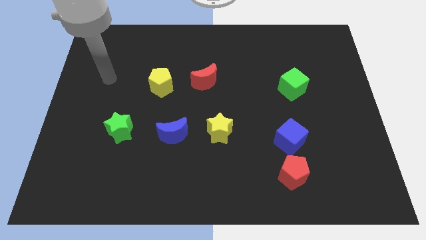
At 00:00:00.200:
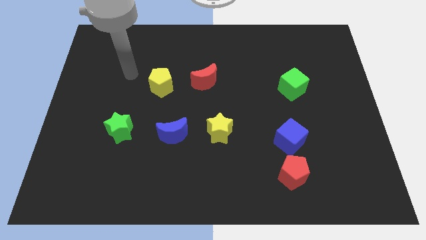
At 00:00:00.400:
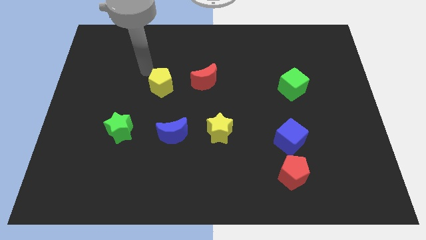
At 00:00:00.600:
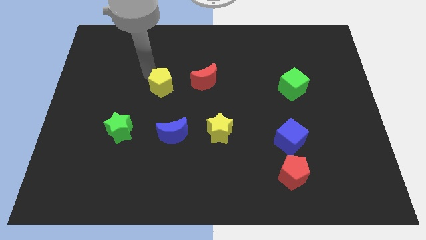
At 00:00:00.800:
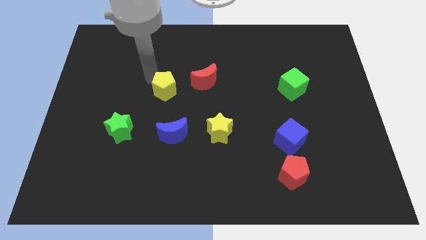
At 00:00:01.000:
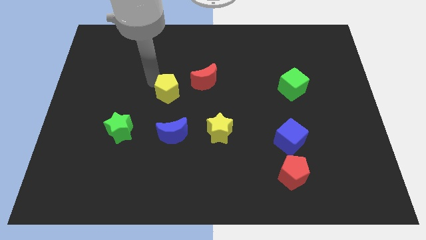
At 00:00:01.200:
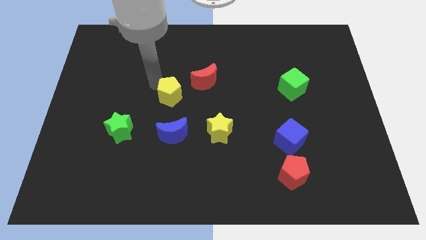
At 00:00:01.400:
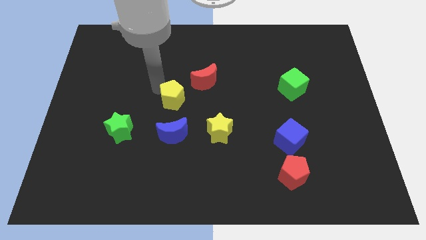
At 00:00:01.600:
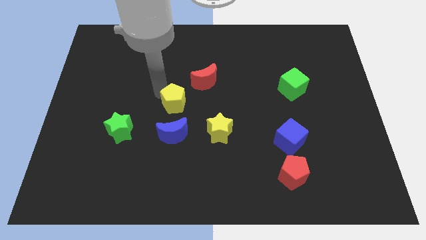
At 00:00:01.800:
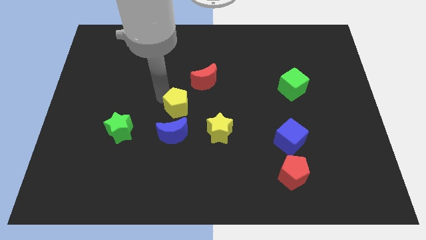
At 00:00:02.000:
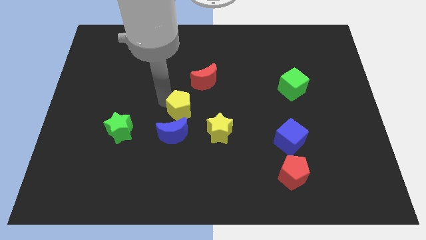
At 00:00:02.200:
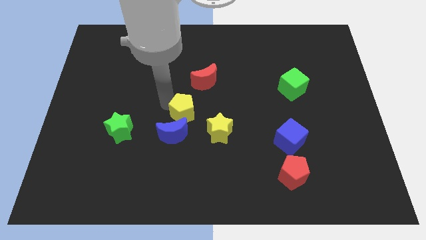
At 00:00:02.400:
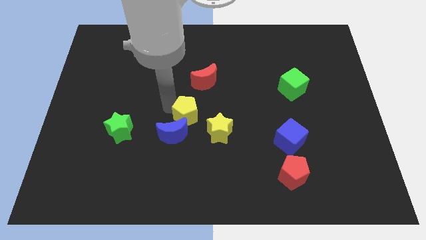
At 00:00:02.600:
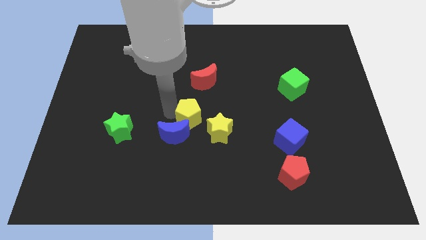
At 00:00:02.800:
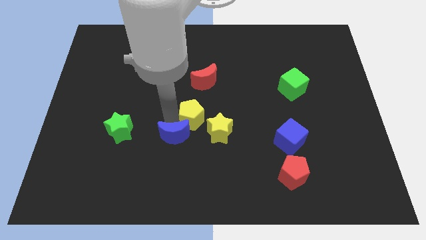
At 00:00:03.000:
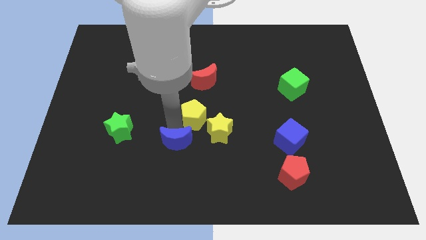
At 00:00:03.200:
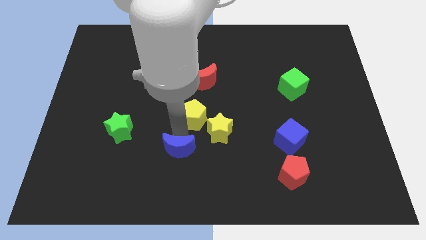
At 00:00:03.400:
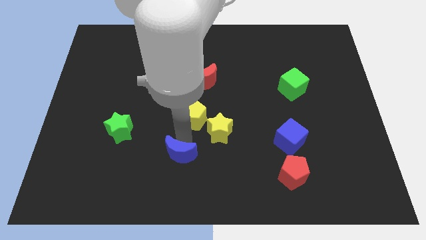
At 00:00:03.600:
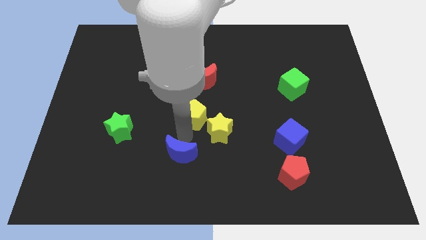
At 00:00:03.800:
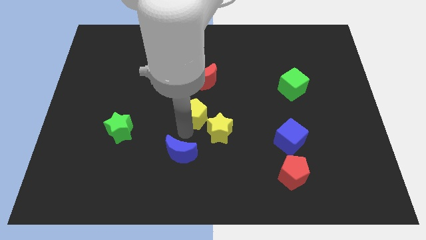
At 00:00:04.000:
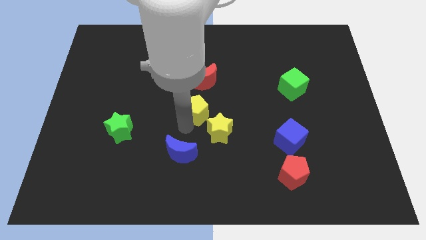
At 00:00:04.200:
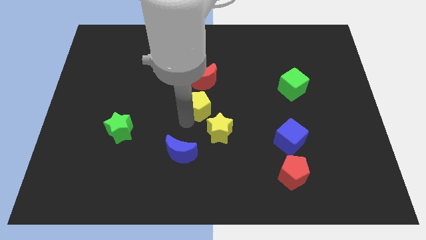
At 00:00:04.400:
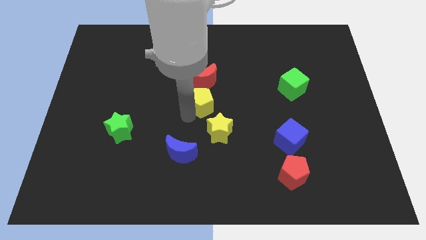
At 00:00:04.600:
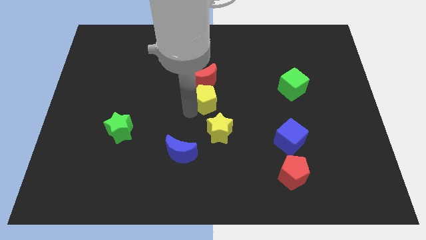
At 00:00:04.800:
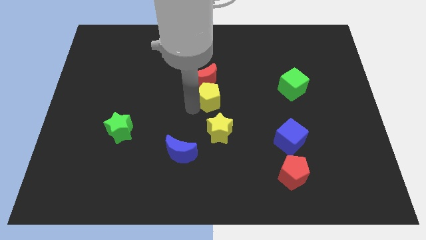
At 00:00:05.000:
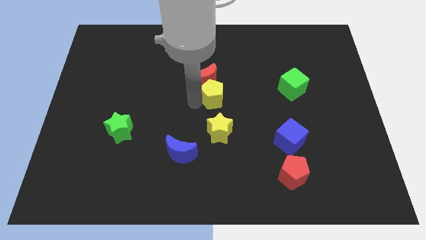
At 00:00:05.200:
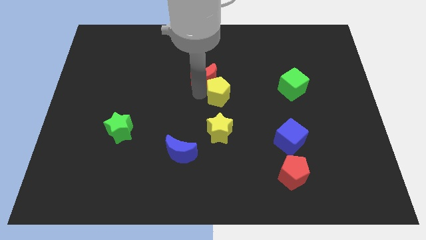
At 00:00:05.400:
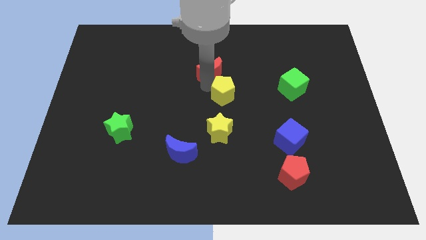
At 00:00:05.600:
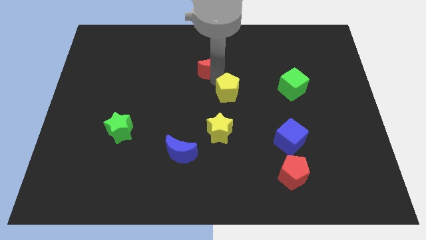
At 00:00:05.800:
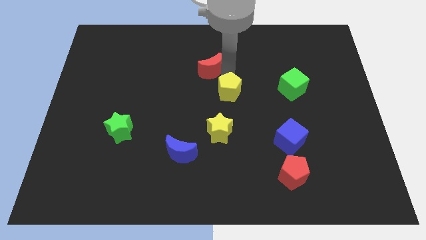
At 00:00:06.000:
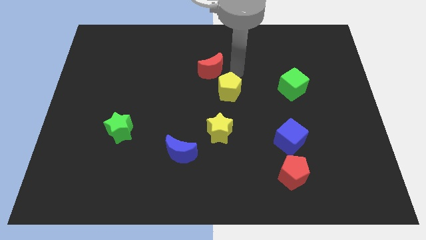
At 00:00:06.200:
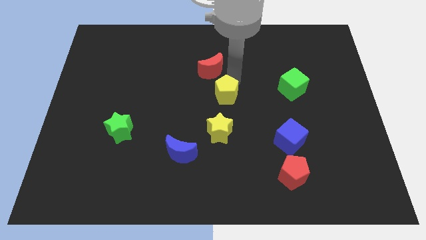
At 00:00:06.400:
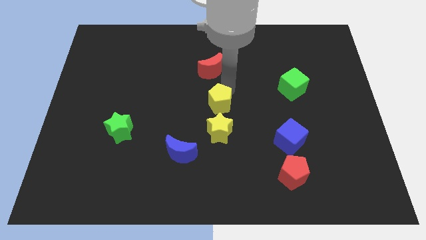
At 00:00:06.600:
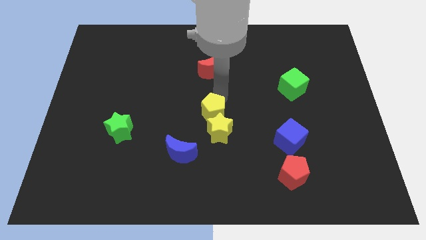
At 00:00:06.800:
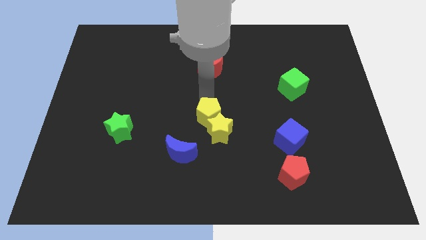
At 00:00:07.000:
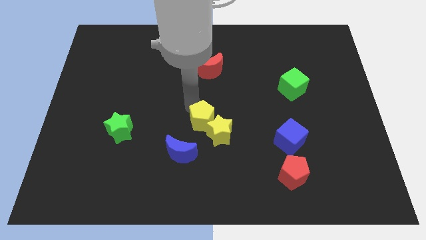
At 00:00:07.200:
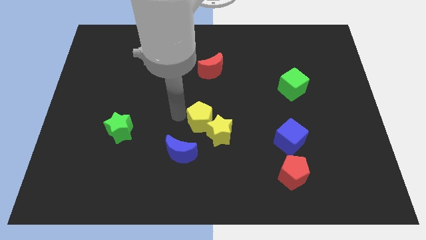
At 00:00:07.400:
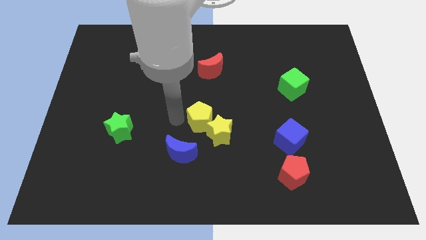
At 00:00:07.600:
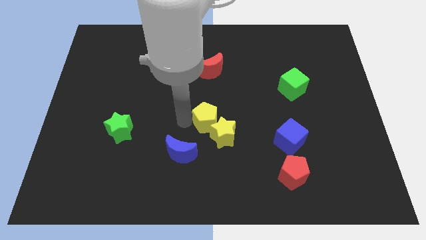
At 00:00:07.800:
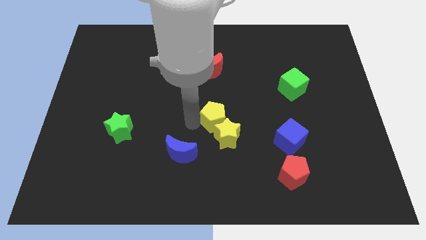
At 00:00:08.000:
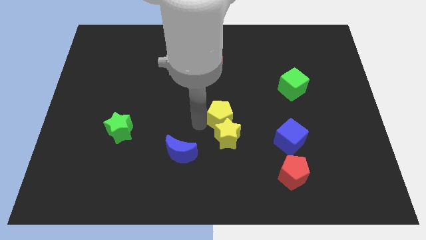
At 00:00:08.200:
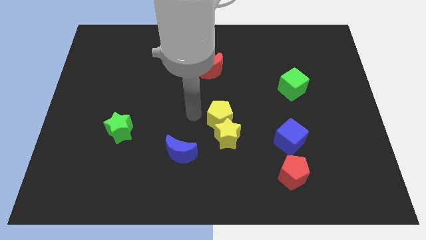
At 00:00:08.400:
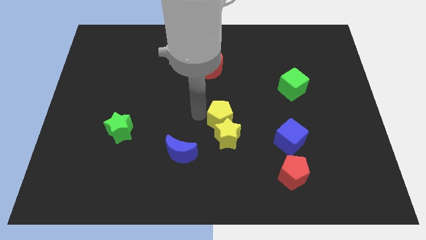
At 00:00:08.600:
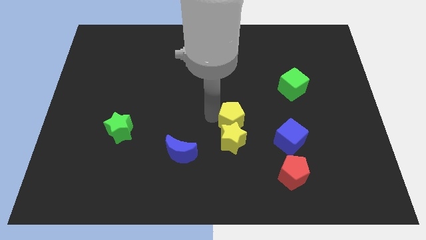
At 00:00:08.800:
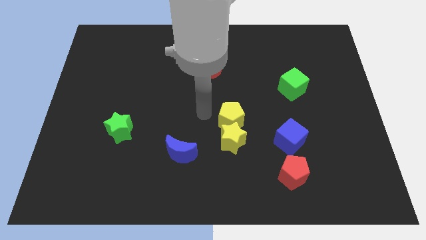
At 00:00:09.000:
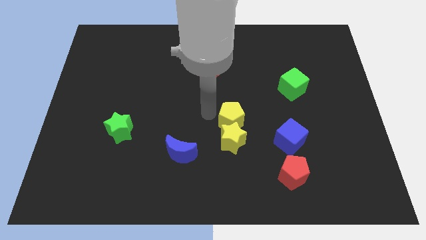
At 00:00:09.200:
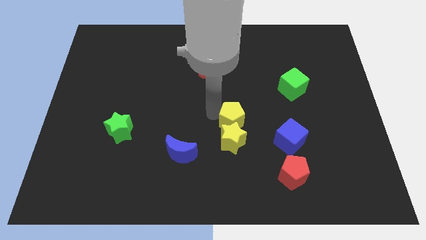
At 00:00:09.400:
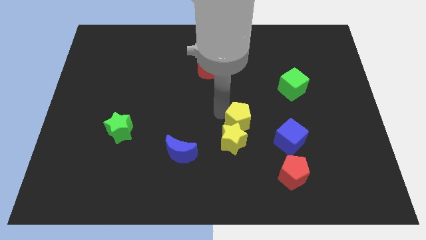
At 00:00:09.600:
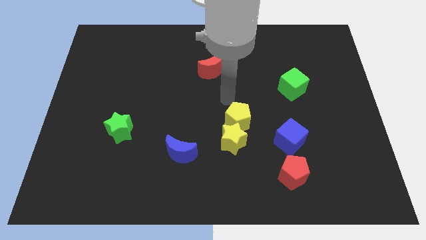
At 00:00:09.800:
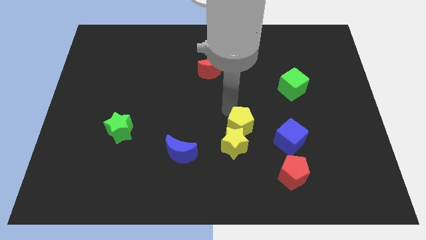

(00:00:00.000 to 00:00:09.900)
move the yellow pentagon downwards and to the right

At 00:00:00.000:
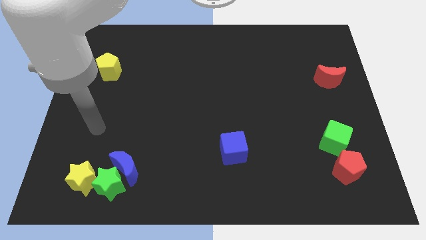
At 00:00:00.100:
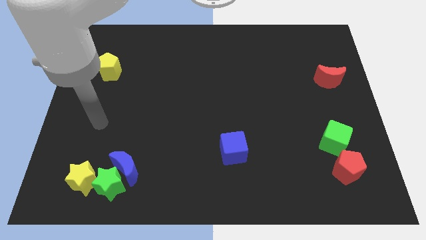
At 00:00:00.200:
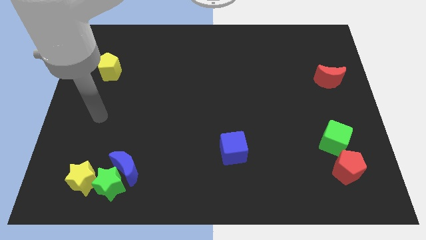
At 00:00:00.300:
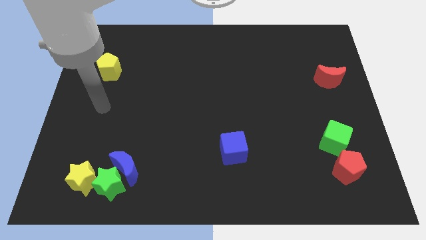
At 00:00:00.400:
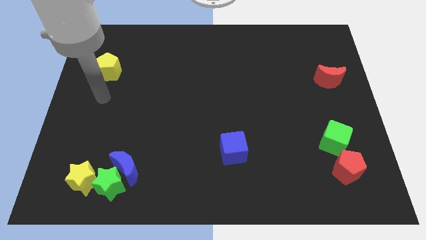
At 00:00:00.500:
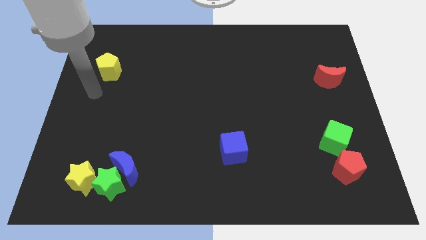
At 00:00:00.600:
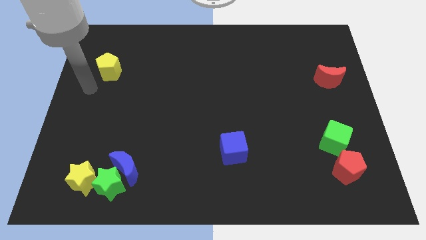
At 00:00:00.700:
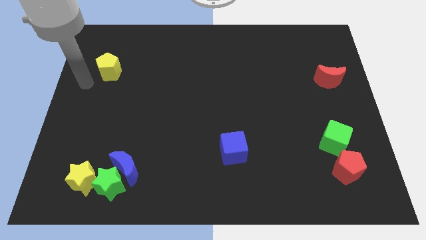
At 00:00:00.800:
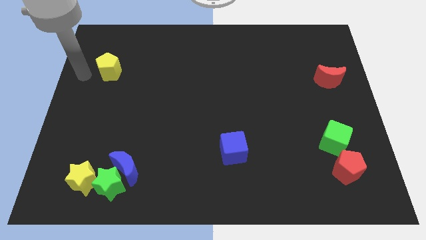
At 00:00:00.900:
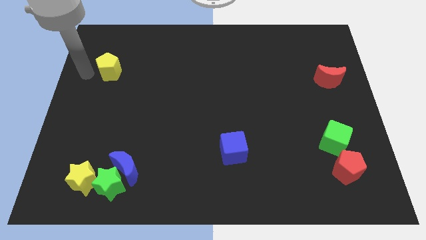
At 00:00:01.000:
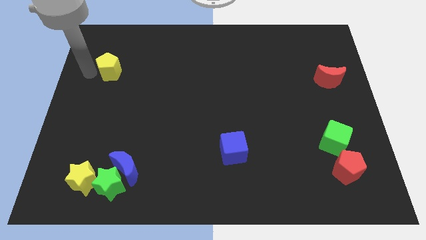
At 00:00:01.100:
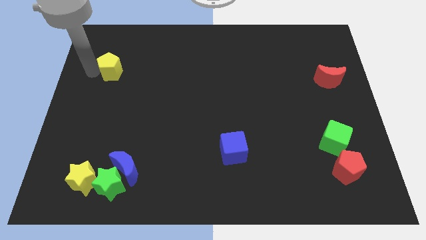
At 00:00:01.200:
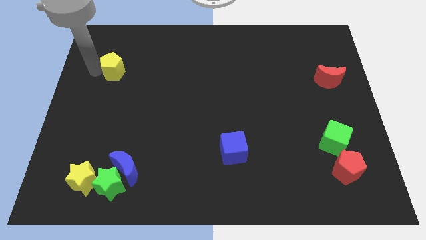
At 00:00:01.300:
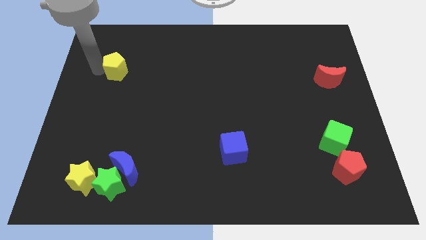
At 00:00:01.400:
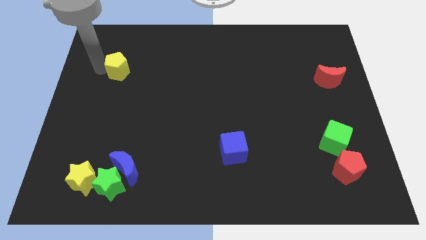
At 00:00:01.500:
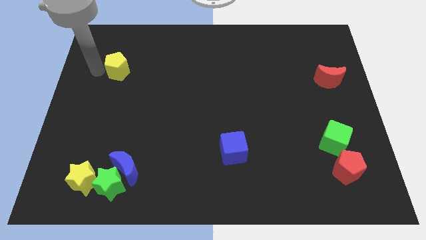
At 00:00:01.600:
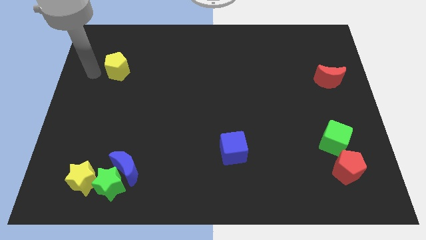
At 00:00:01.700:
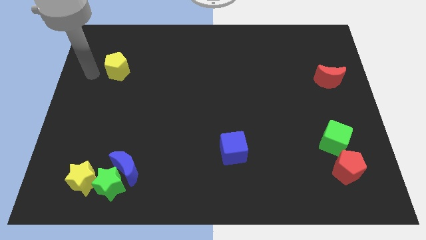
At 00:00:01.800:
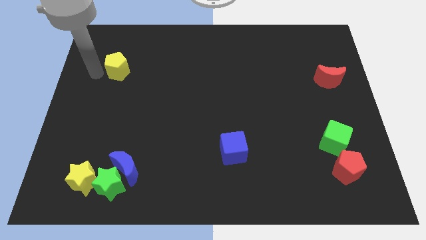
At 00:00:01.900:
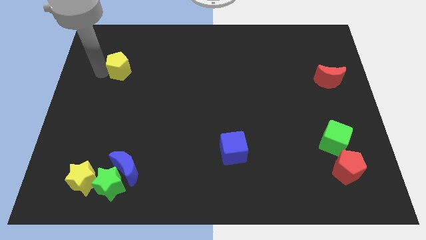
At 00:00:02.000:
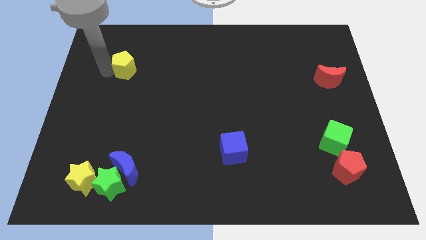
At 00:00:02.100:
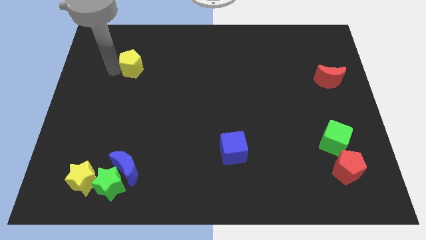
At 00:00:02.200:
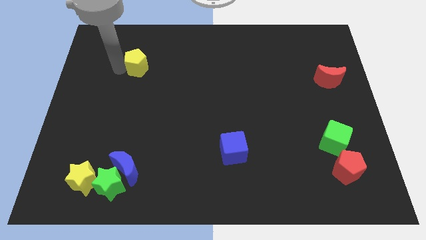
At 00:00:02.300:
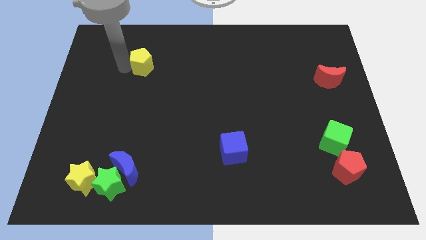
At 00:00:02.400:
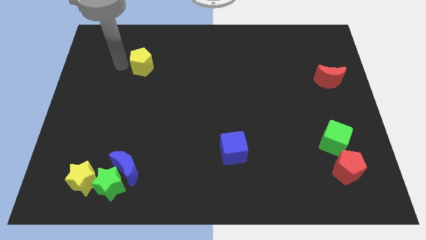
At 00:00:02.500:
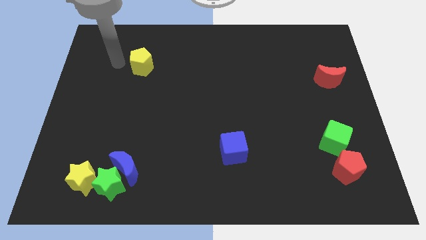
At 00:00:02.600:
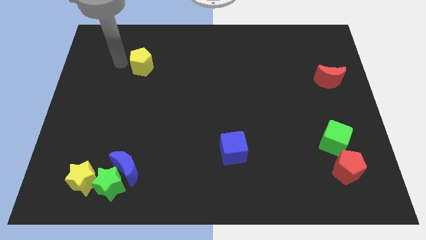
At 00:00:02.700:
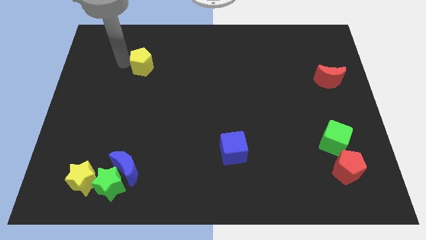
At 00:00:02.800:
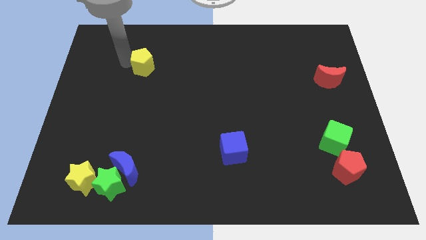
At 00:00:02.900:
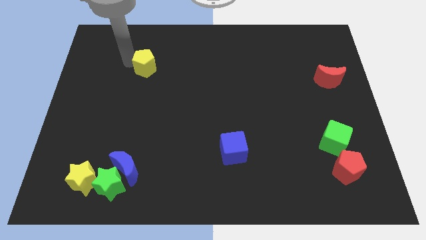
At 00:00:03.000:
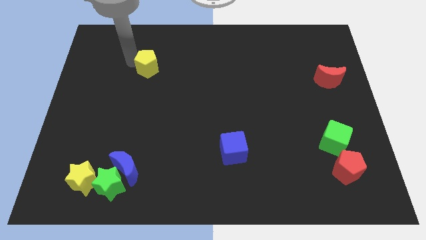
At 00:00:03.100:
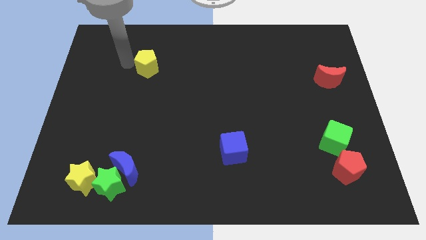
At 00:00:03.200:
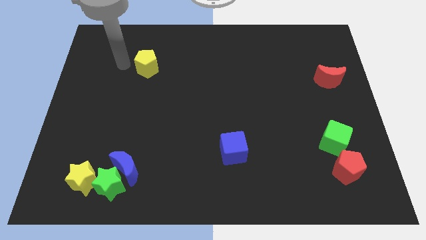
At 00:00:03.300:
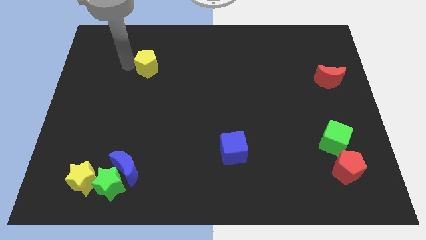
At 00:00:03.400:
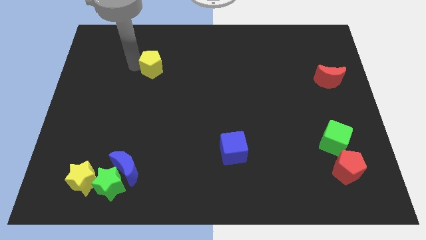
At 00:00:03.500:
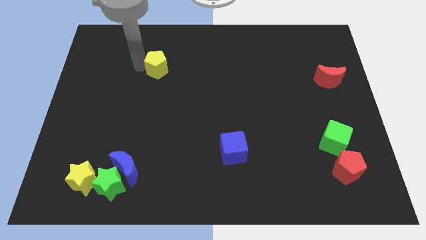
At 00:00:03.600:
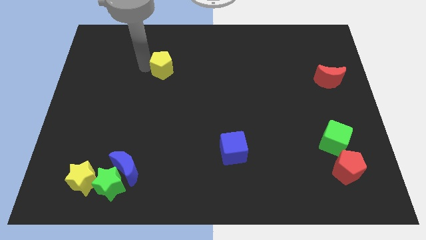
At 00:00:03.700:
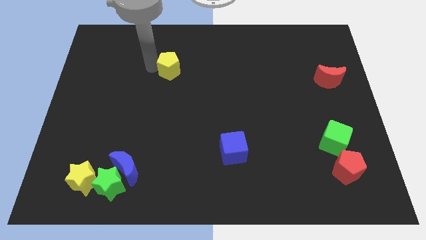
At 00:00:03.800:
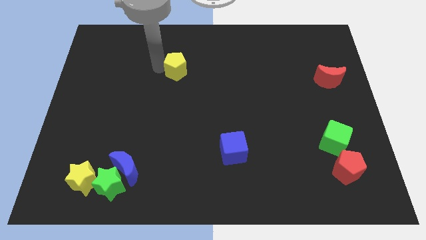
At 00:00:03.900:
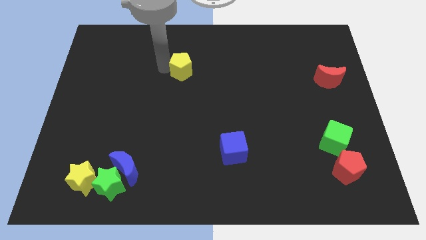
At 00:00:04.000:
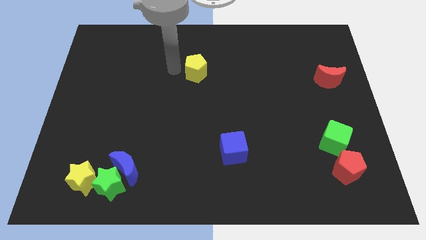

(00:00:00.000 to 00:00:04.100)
slide the yellow pentagon to the right
